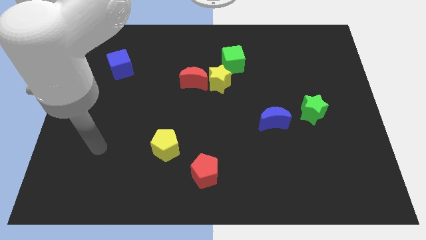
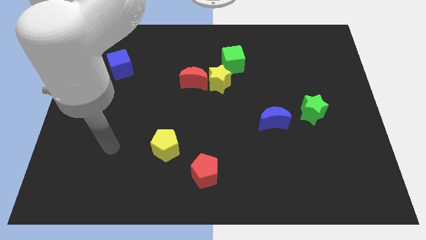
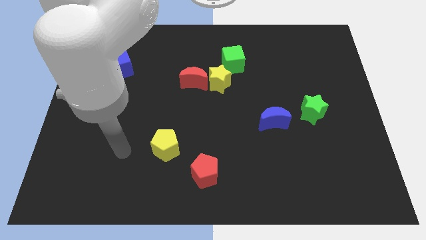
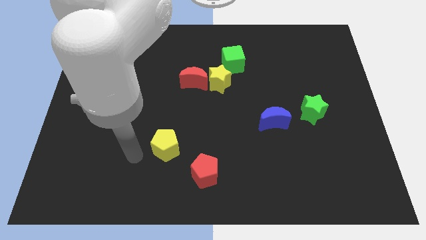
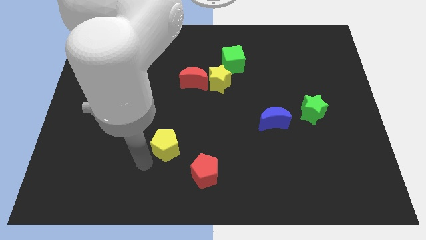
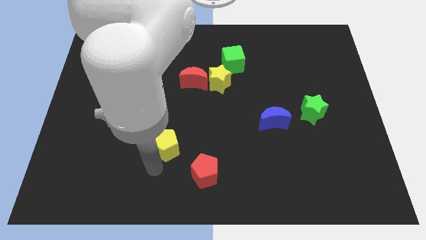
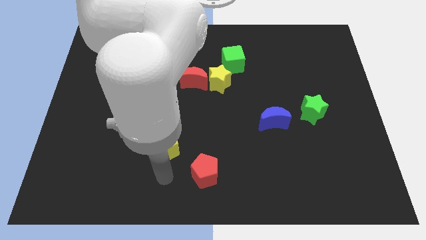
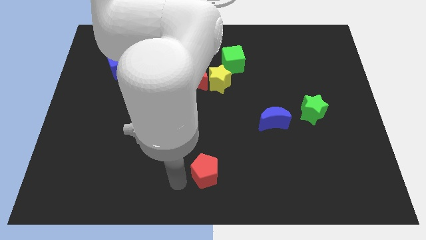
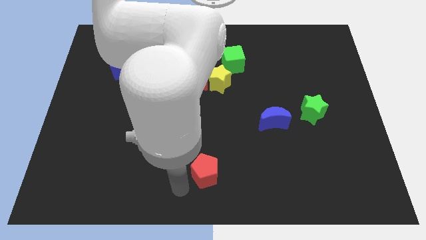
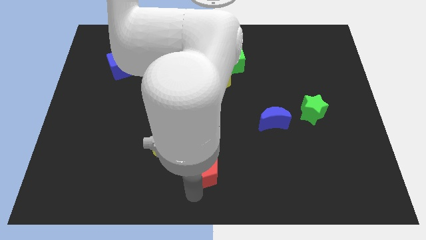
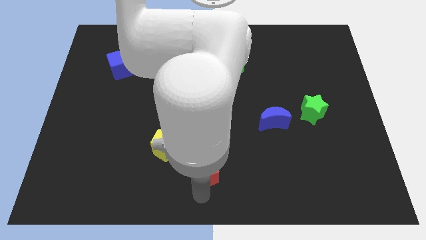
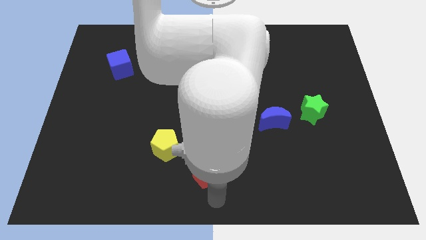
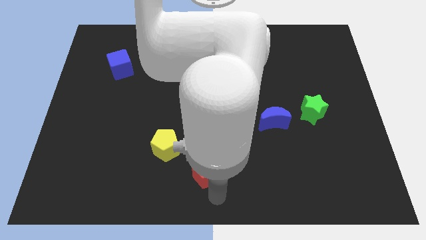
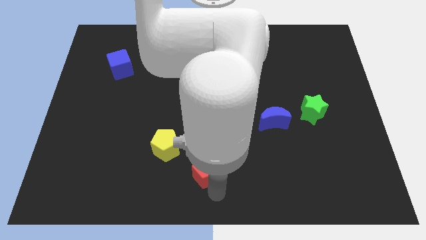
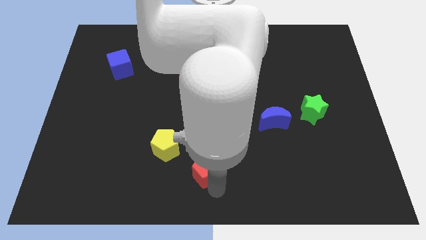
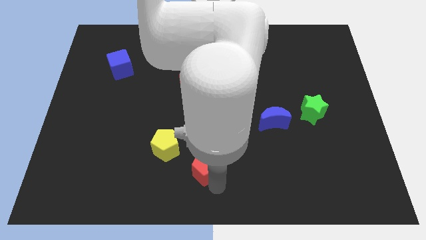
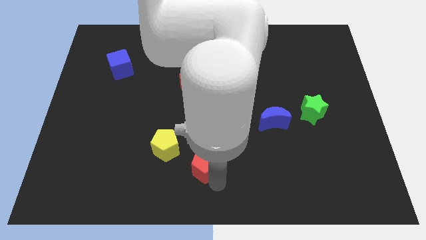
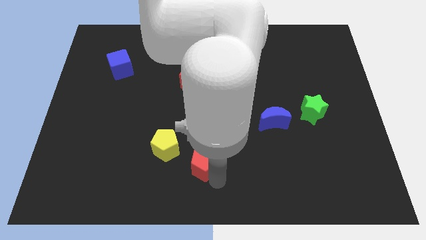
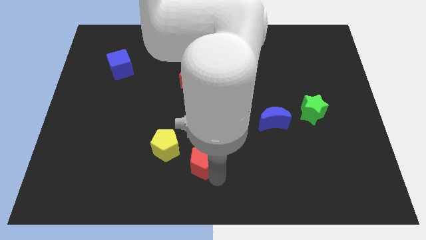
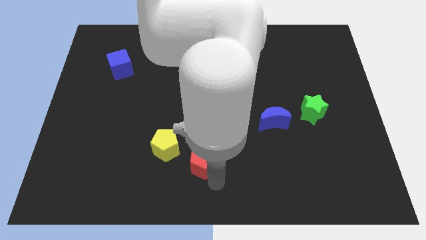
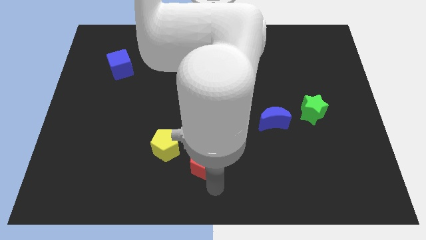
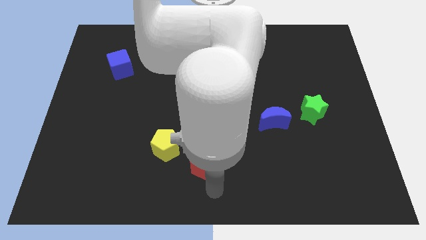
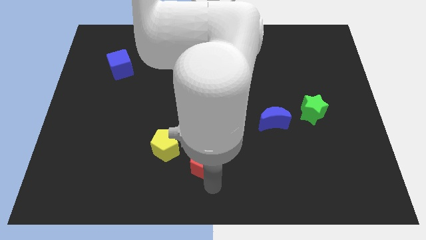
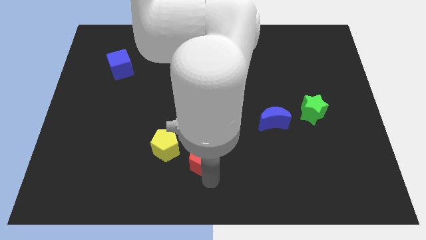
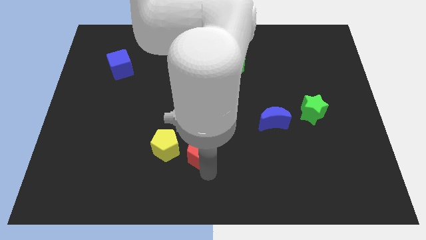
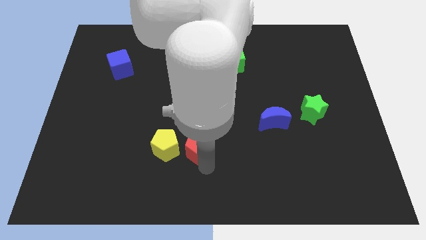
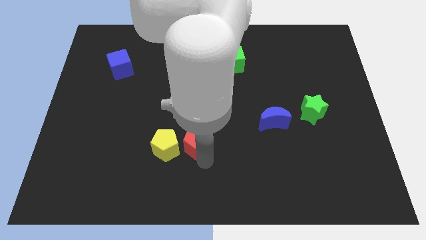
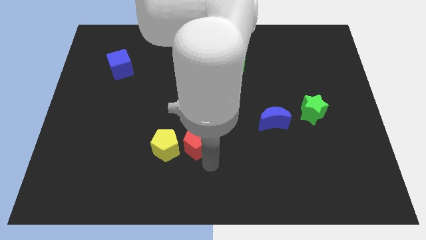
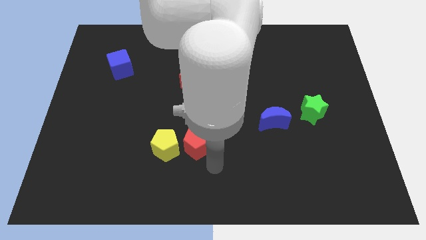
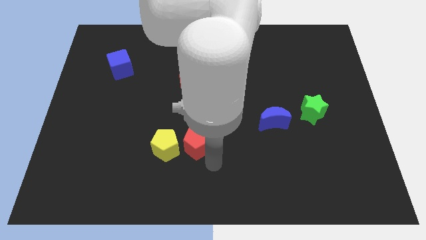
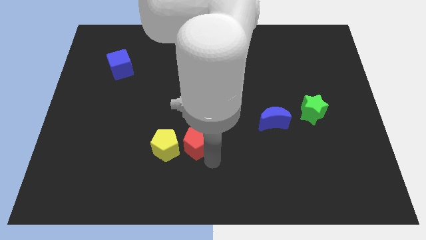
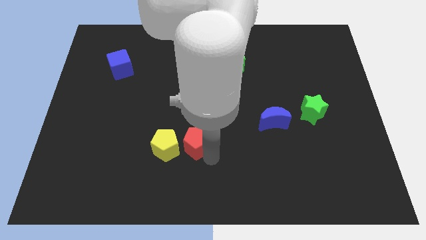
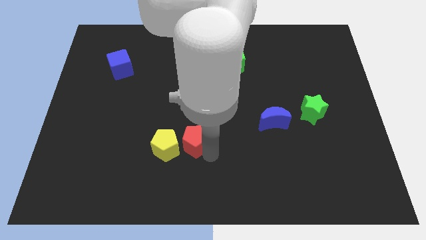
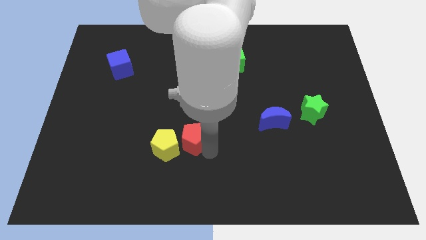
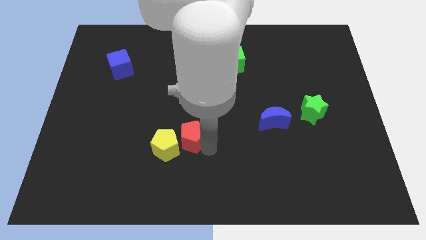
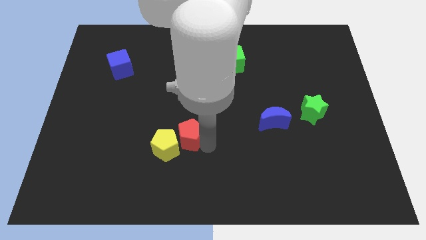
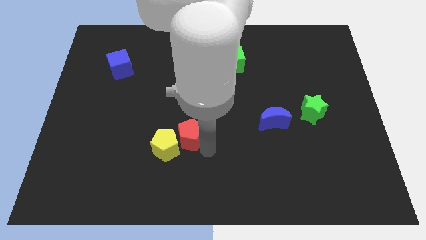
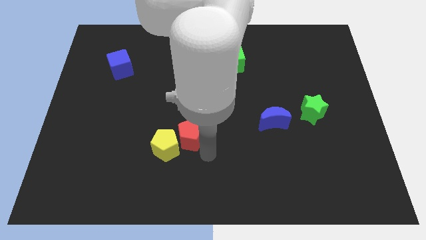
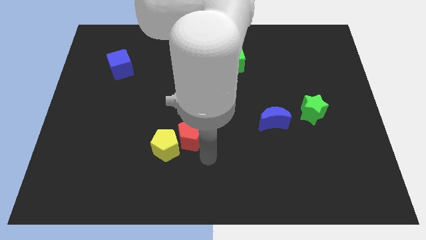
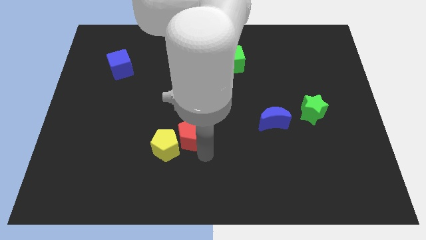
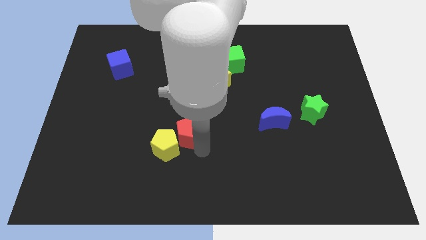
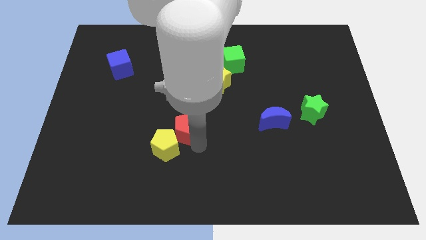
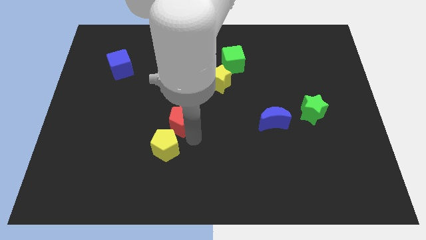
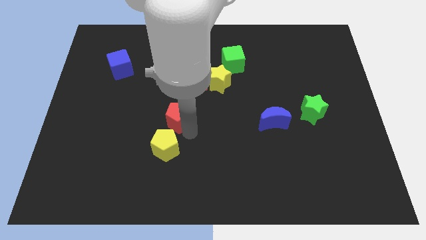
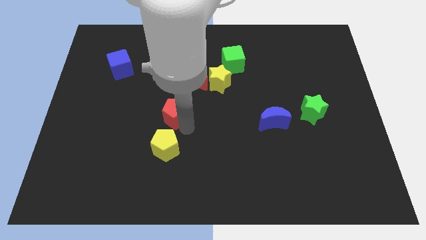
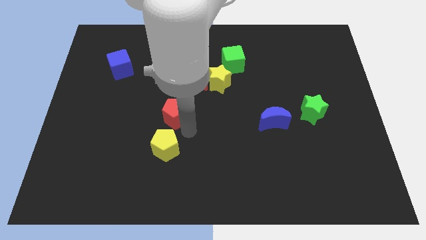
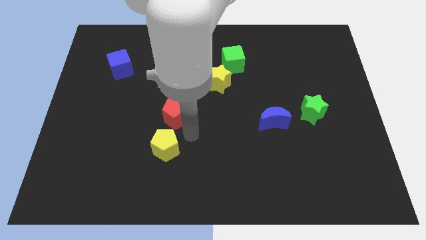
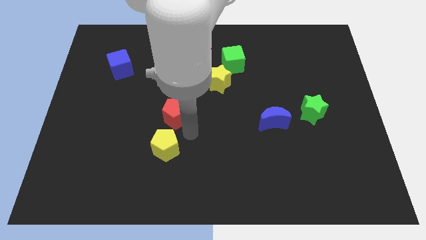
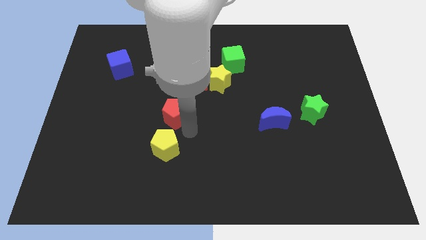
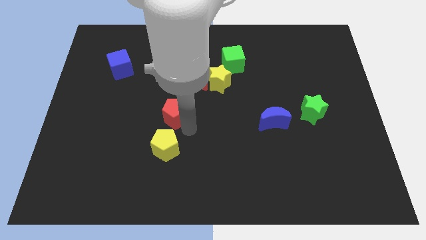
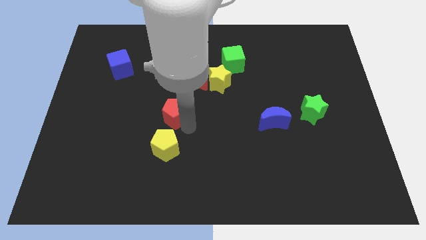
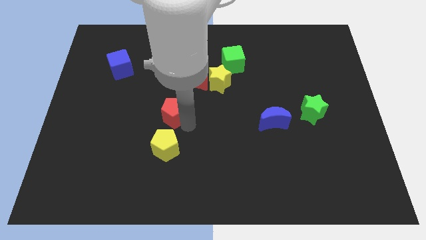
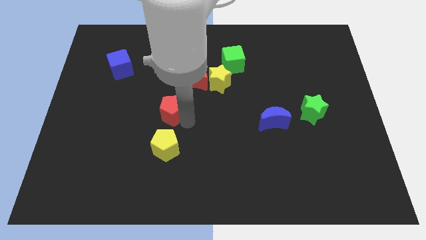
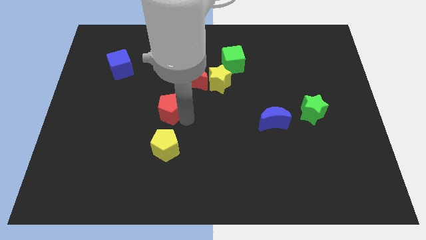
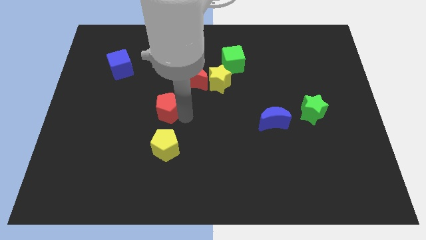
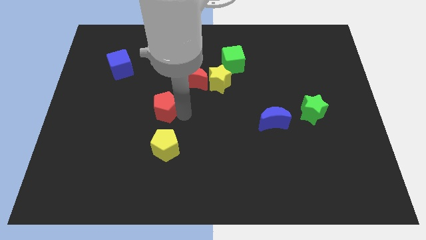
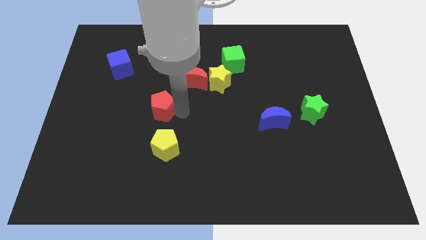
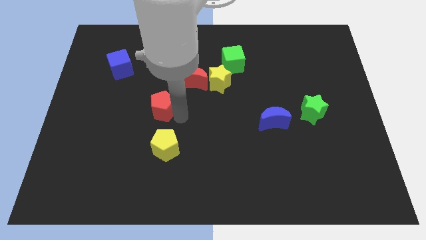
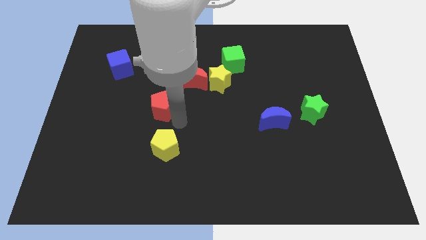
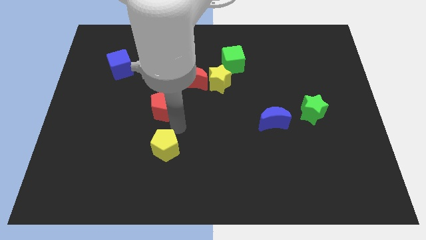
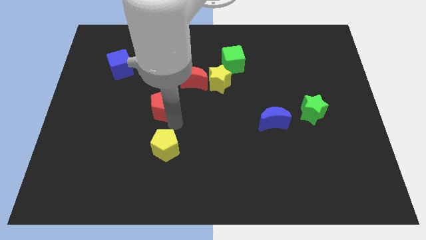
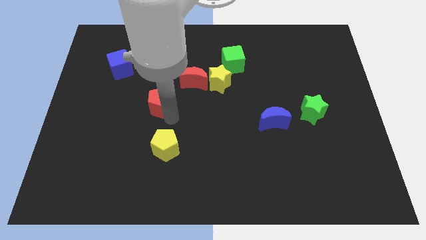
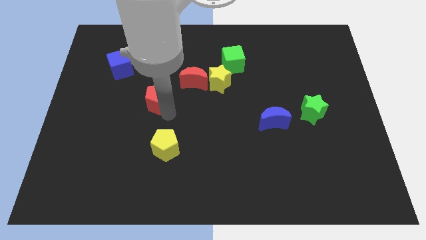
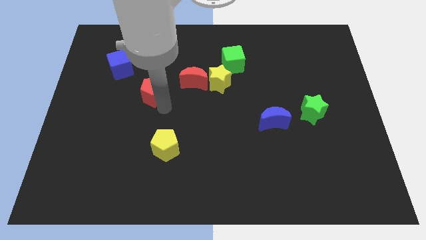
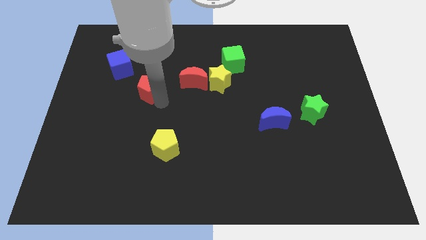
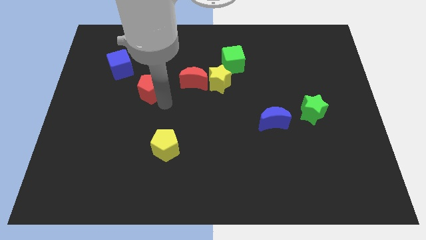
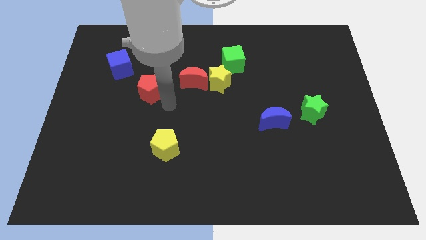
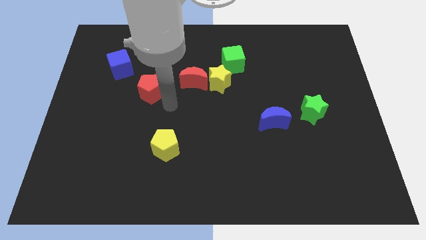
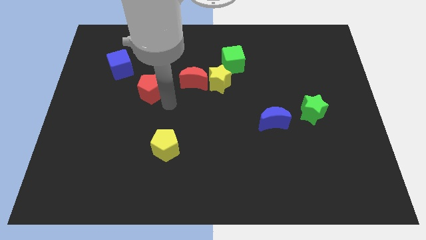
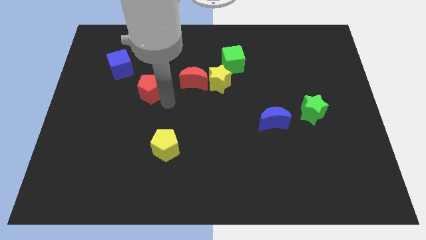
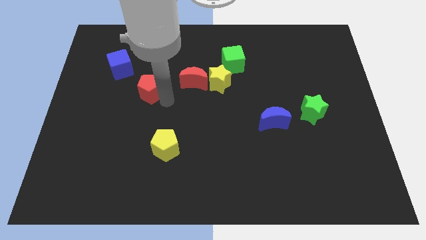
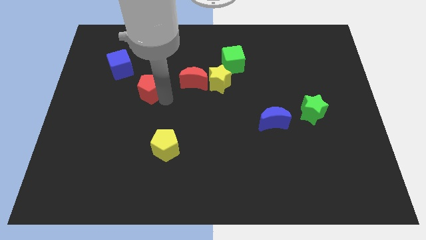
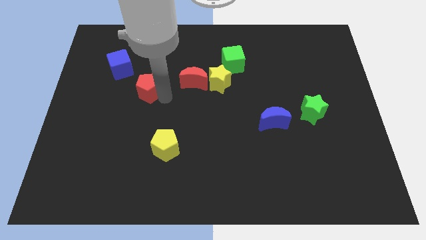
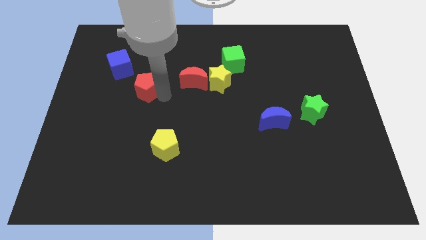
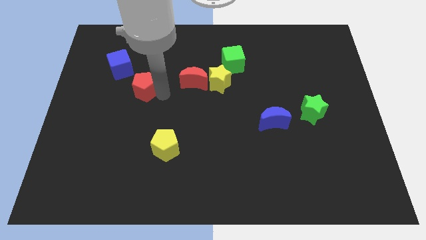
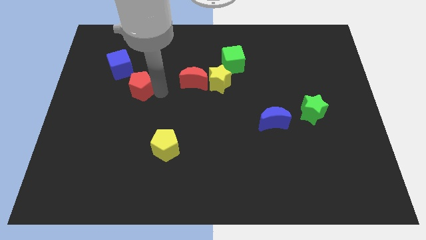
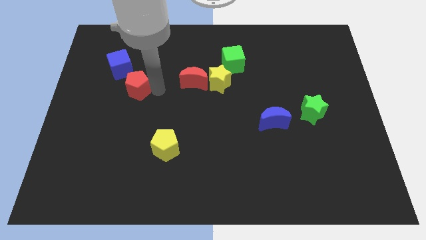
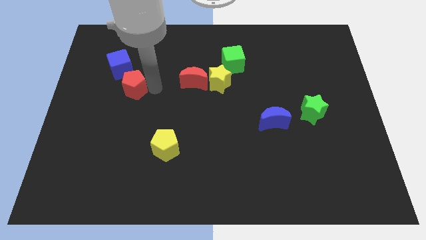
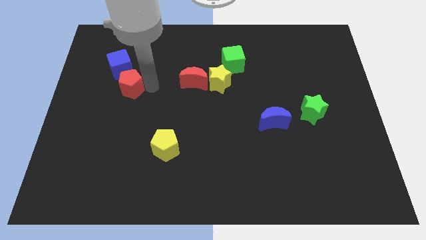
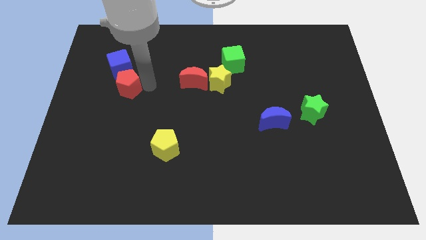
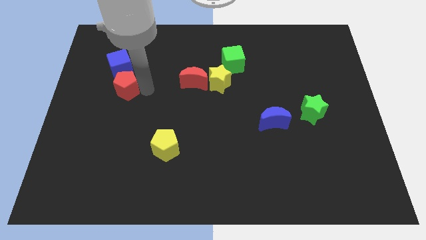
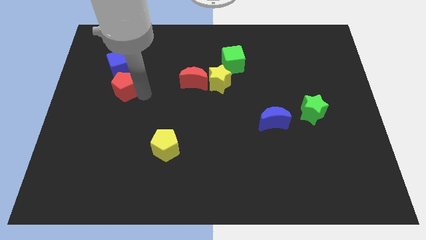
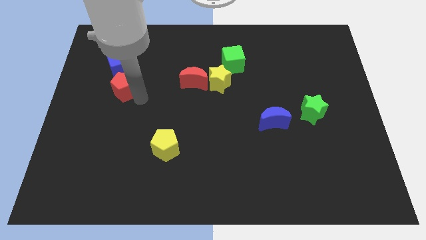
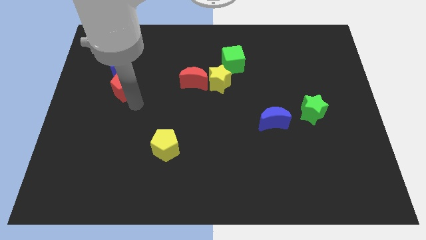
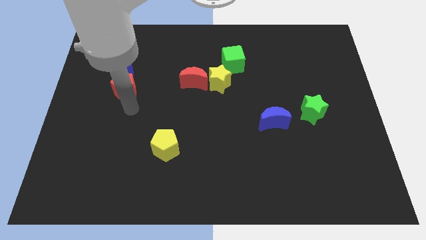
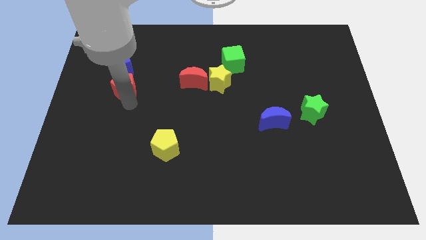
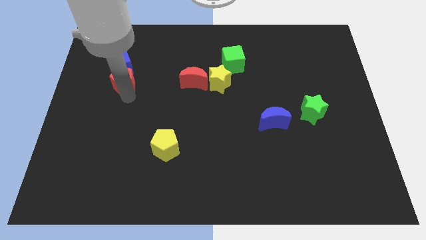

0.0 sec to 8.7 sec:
push the red pentagon next to the blue cube
